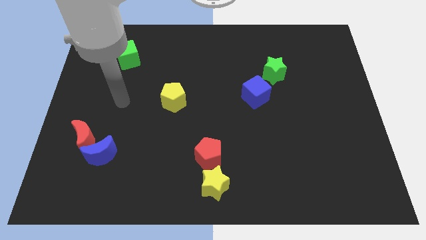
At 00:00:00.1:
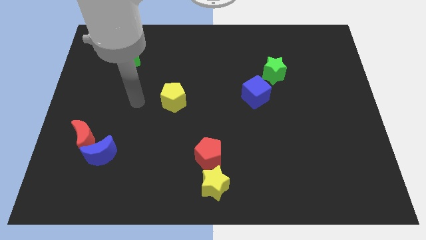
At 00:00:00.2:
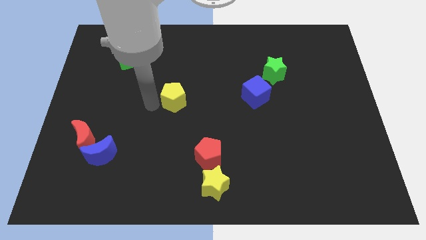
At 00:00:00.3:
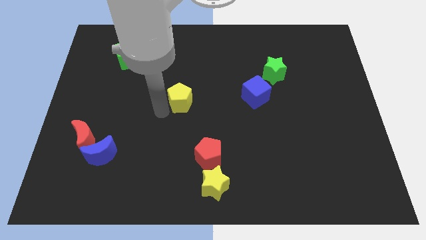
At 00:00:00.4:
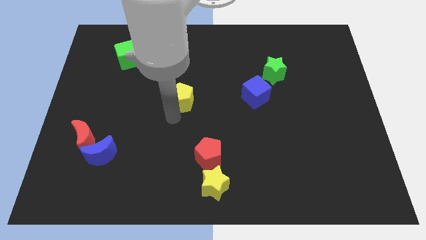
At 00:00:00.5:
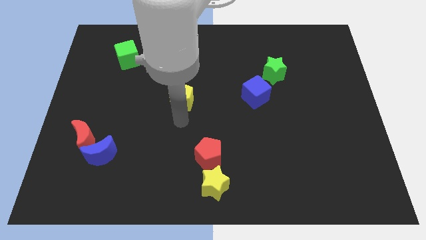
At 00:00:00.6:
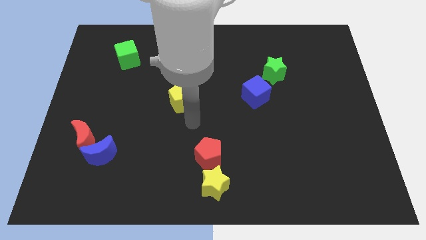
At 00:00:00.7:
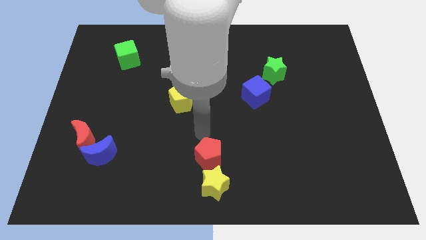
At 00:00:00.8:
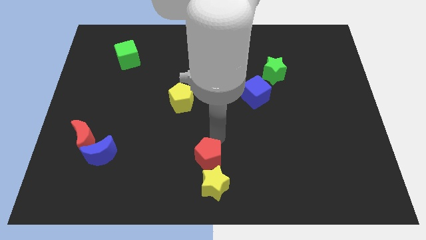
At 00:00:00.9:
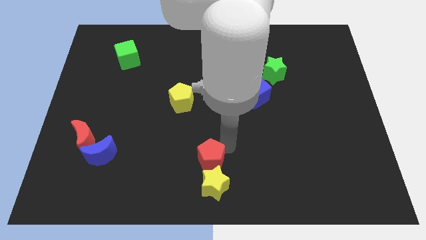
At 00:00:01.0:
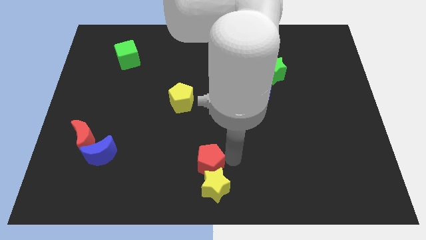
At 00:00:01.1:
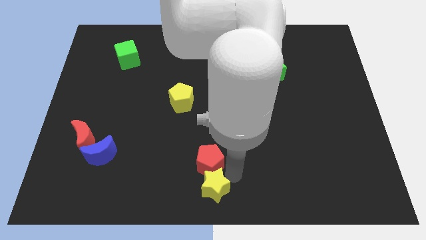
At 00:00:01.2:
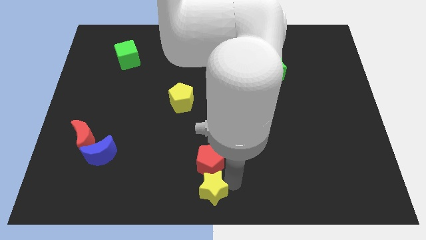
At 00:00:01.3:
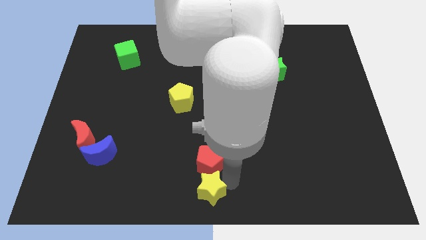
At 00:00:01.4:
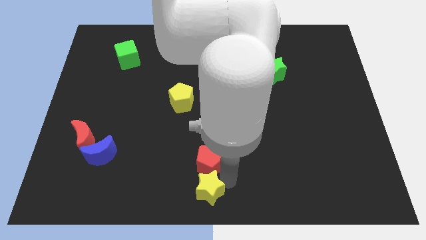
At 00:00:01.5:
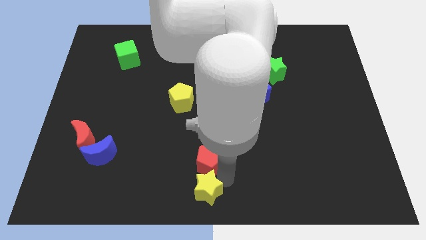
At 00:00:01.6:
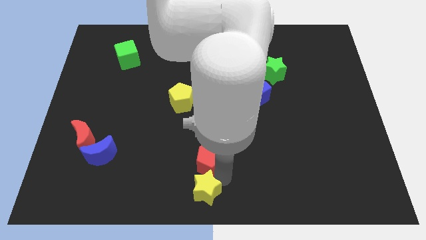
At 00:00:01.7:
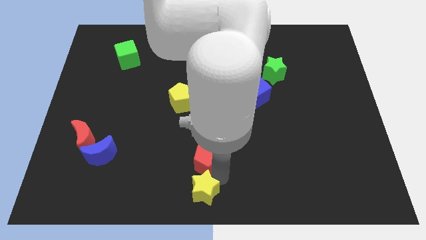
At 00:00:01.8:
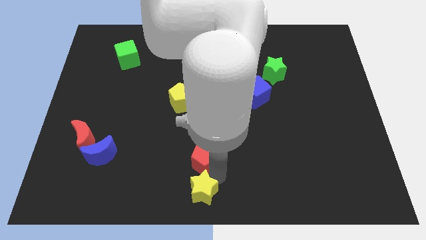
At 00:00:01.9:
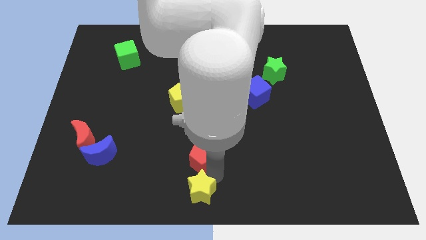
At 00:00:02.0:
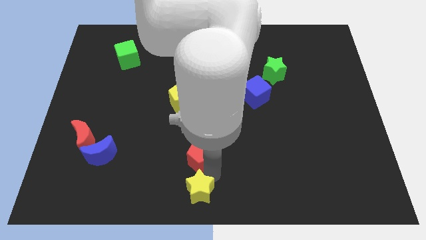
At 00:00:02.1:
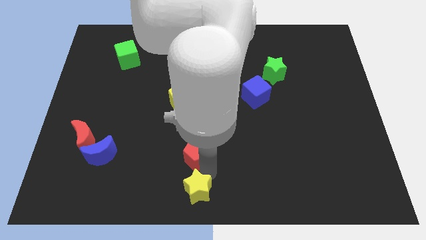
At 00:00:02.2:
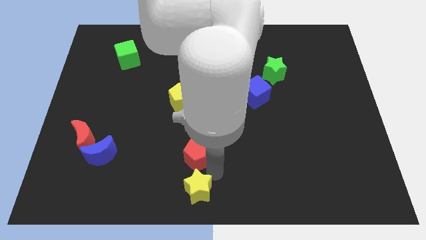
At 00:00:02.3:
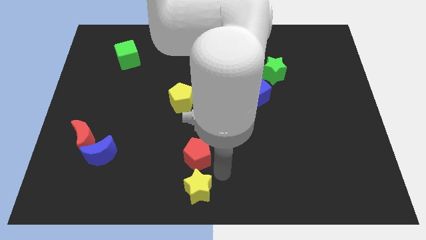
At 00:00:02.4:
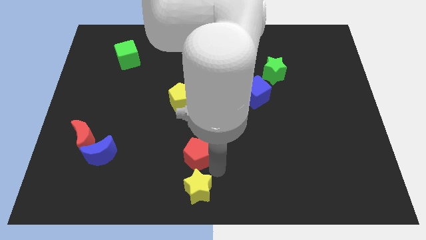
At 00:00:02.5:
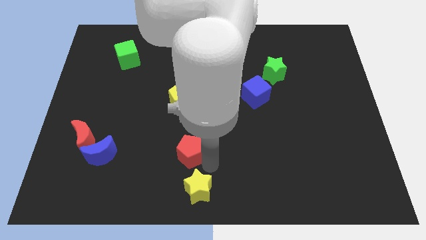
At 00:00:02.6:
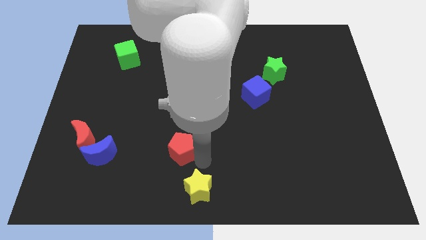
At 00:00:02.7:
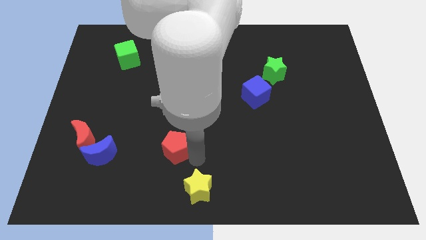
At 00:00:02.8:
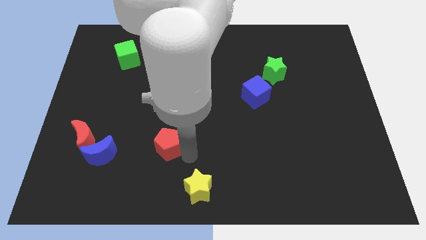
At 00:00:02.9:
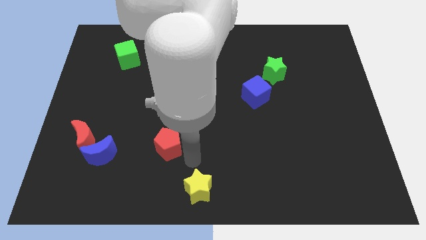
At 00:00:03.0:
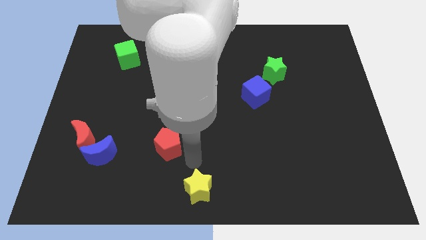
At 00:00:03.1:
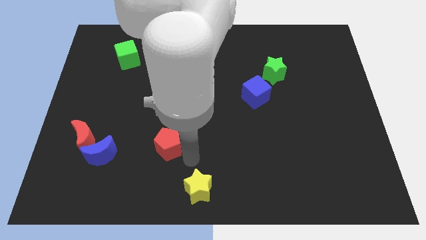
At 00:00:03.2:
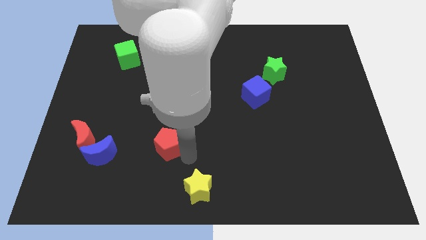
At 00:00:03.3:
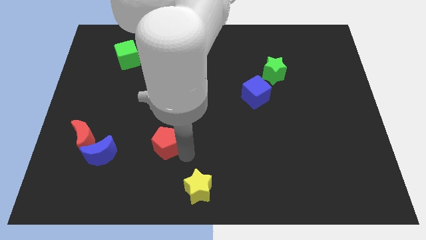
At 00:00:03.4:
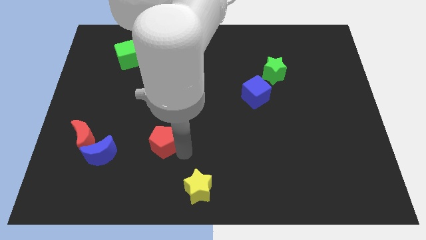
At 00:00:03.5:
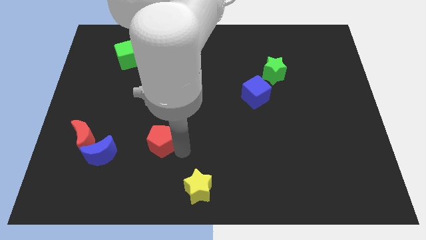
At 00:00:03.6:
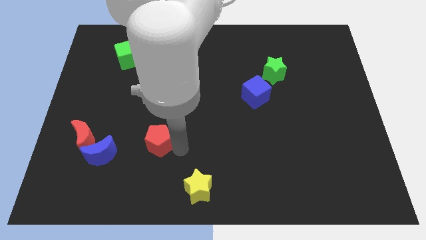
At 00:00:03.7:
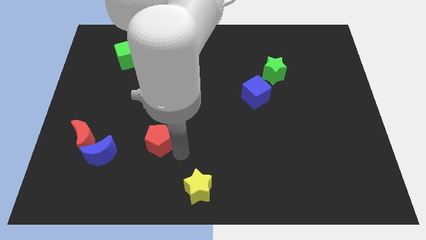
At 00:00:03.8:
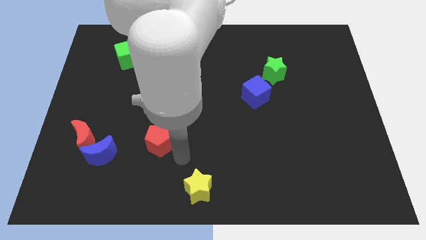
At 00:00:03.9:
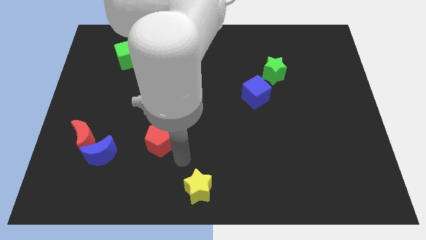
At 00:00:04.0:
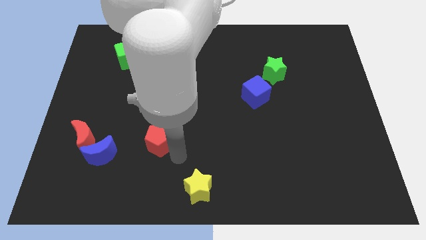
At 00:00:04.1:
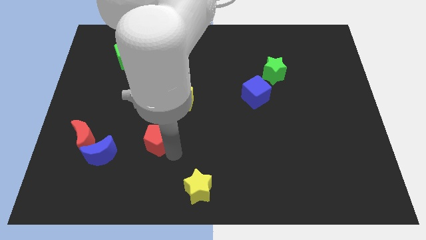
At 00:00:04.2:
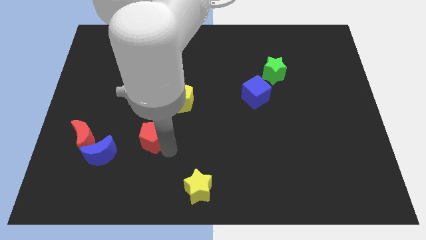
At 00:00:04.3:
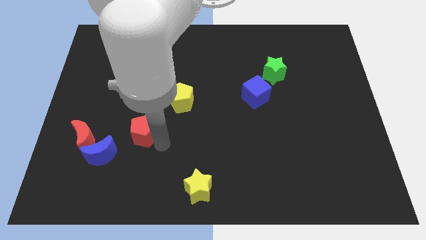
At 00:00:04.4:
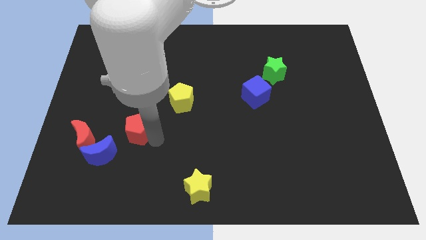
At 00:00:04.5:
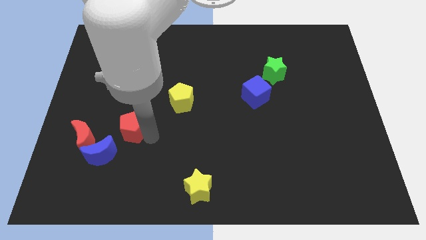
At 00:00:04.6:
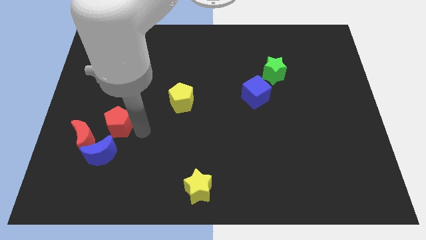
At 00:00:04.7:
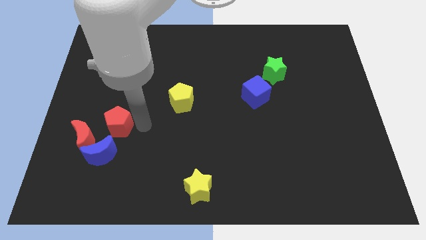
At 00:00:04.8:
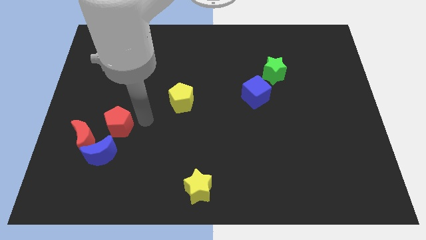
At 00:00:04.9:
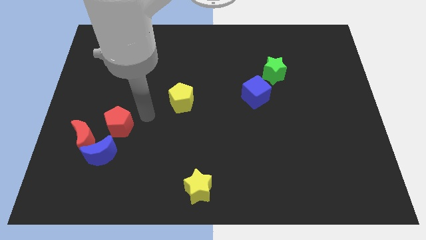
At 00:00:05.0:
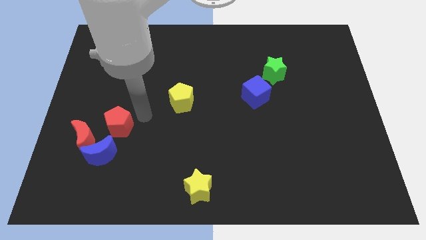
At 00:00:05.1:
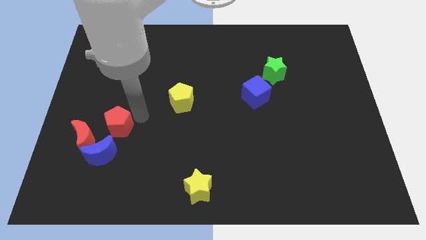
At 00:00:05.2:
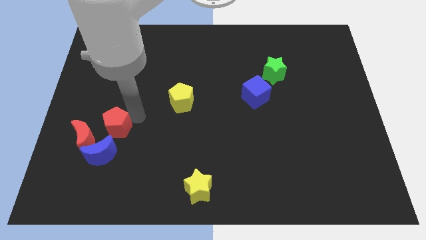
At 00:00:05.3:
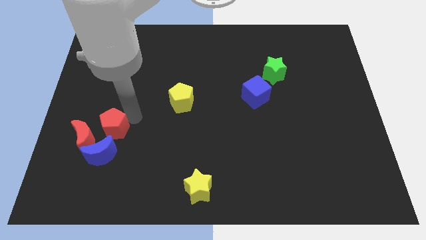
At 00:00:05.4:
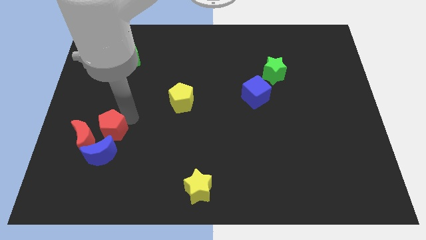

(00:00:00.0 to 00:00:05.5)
push the red pentagon towards the red moon

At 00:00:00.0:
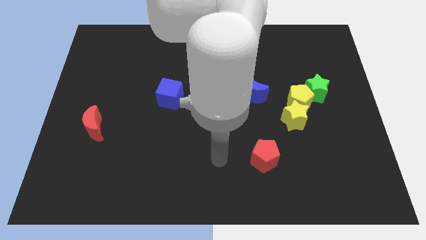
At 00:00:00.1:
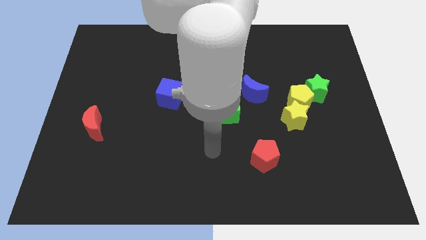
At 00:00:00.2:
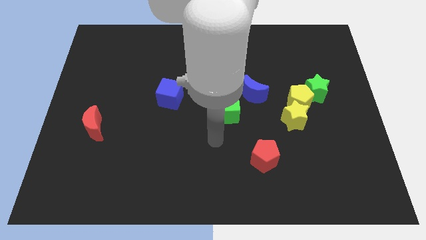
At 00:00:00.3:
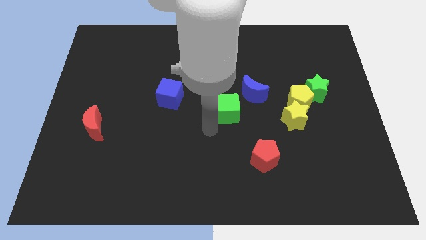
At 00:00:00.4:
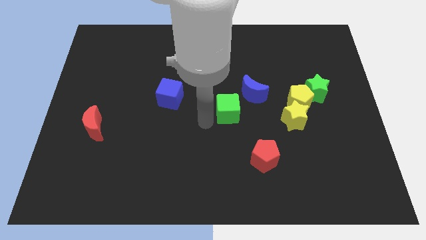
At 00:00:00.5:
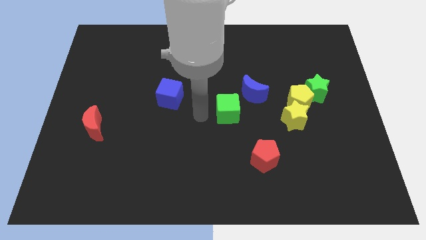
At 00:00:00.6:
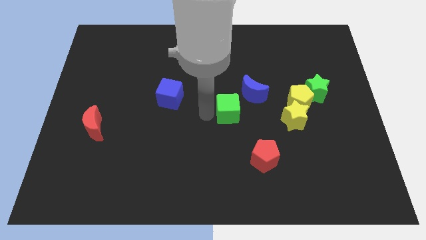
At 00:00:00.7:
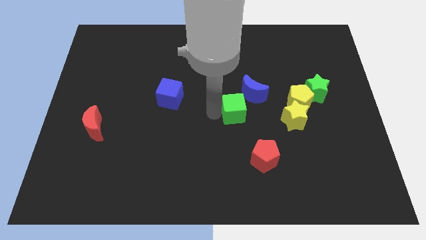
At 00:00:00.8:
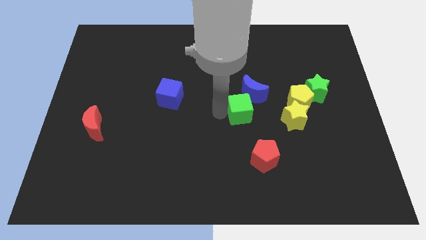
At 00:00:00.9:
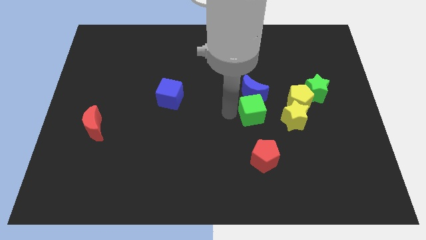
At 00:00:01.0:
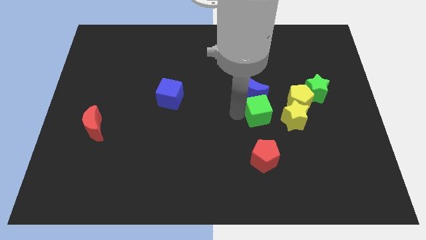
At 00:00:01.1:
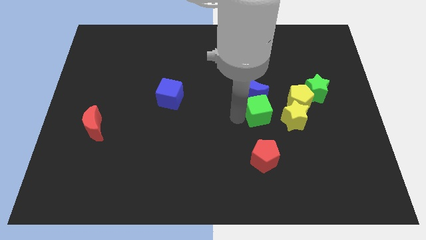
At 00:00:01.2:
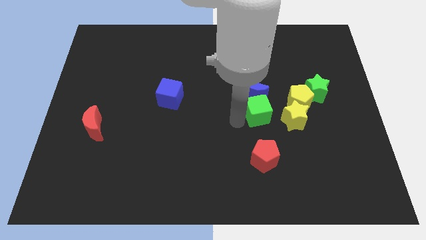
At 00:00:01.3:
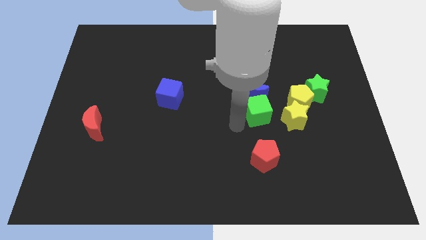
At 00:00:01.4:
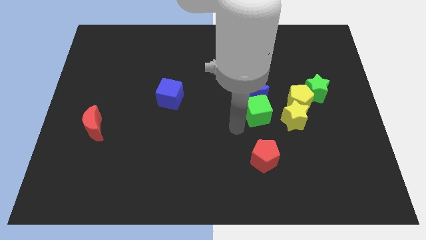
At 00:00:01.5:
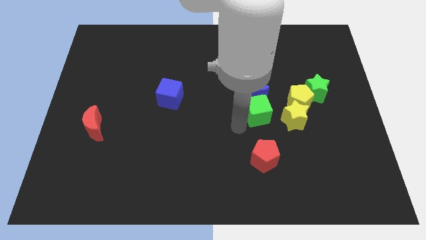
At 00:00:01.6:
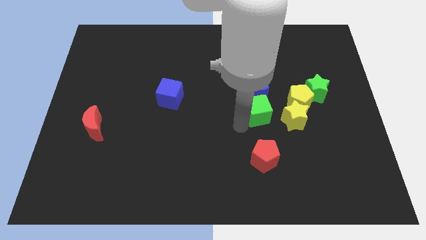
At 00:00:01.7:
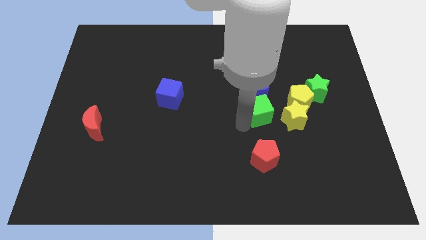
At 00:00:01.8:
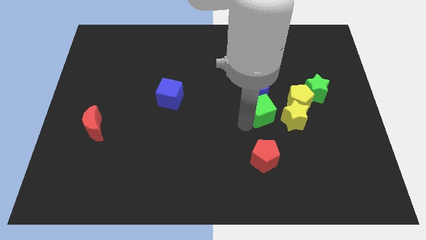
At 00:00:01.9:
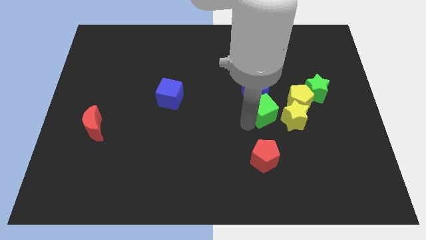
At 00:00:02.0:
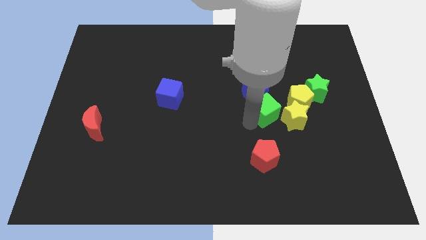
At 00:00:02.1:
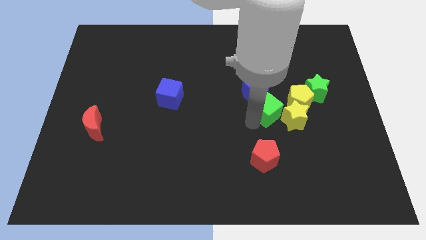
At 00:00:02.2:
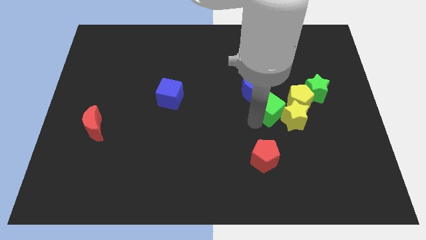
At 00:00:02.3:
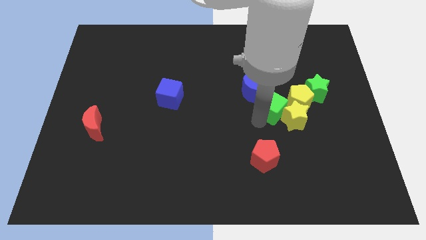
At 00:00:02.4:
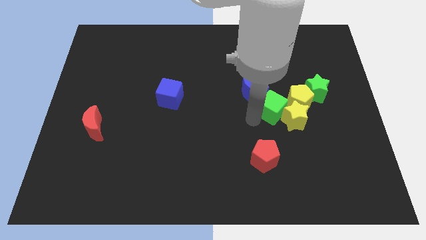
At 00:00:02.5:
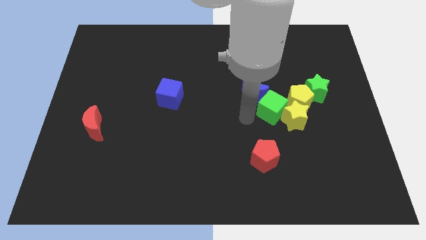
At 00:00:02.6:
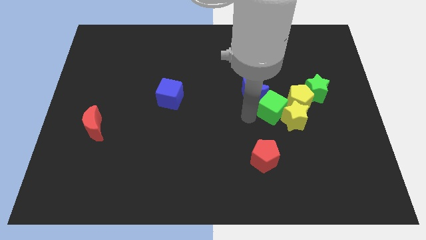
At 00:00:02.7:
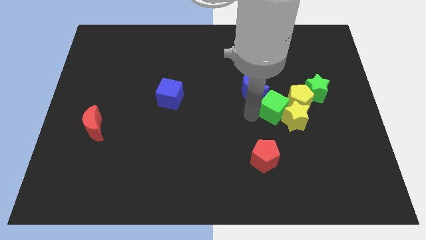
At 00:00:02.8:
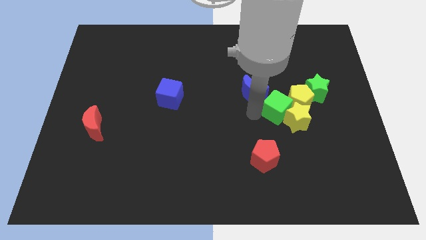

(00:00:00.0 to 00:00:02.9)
move the green cube next to the yellow pentagon
